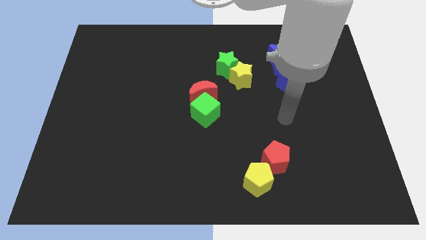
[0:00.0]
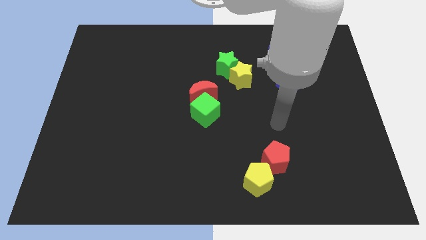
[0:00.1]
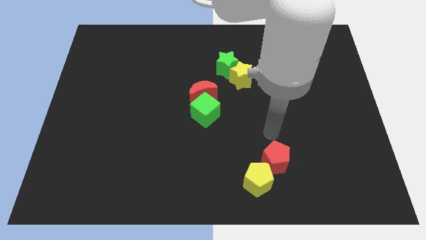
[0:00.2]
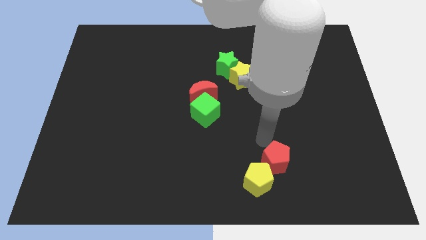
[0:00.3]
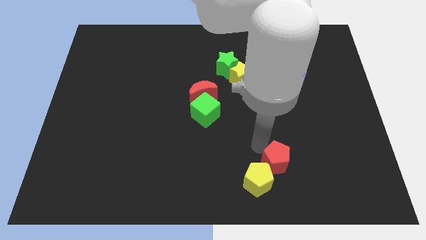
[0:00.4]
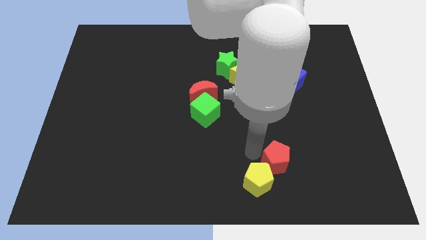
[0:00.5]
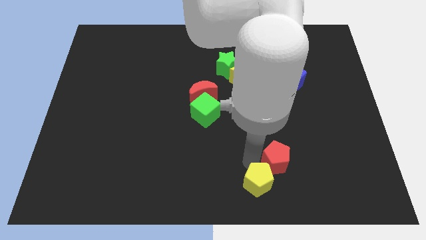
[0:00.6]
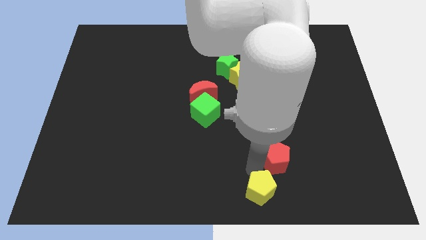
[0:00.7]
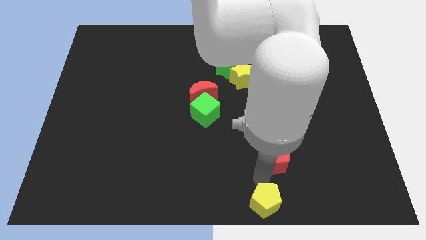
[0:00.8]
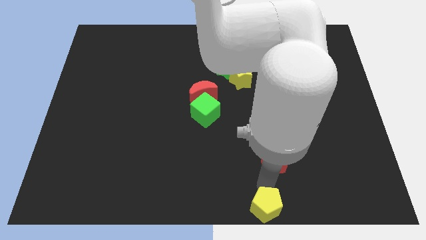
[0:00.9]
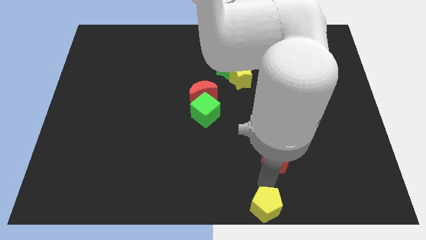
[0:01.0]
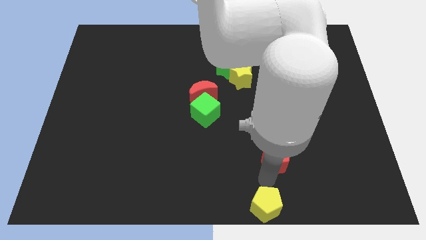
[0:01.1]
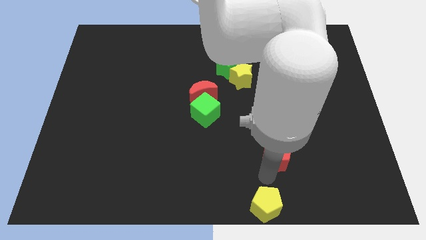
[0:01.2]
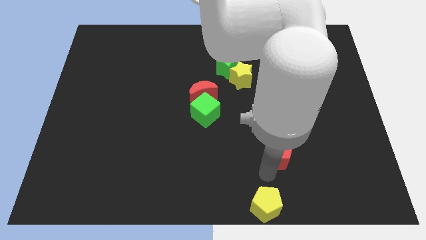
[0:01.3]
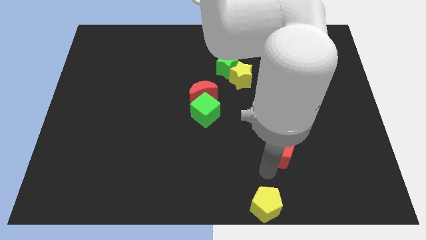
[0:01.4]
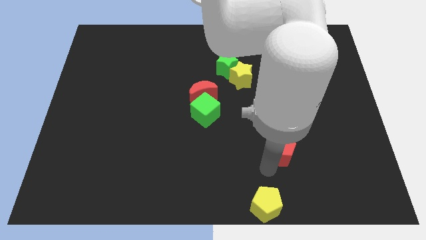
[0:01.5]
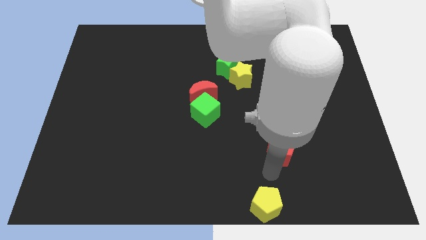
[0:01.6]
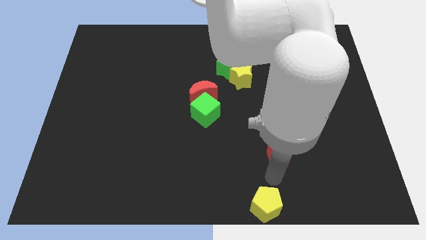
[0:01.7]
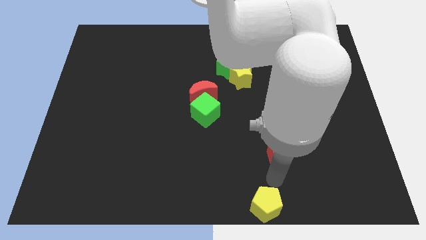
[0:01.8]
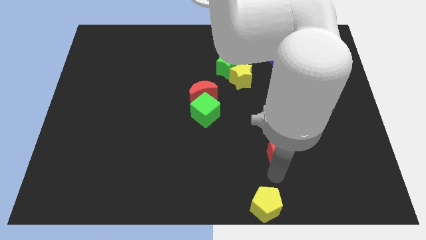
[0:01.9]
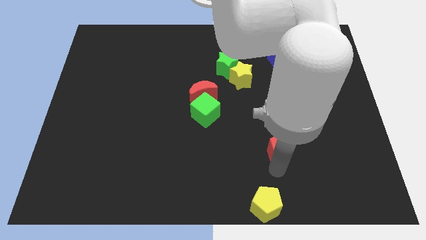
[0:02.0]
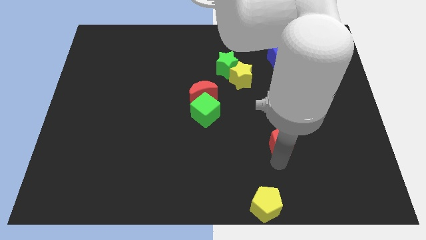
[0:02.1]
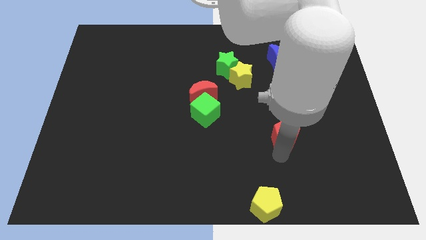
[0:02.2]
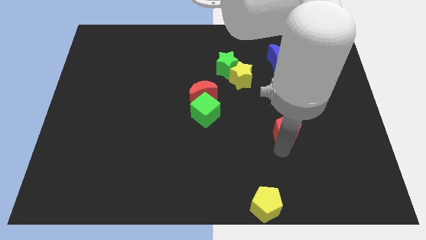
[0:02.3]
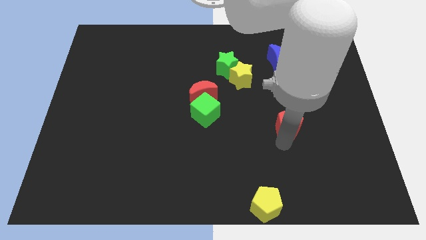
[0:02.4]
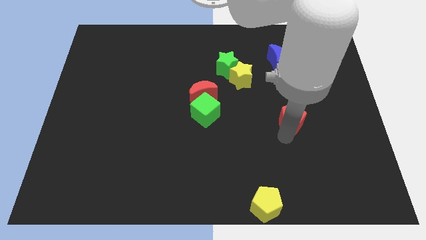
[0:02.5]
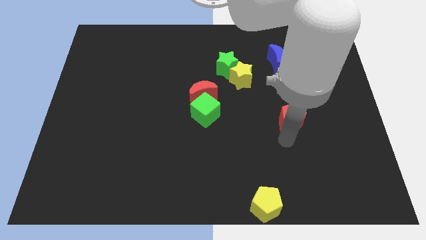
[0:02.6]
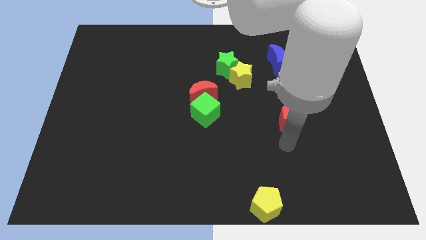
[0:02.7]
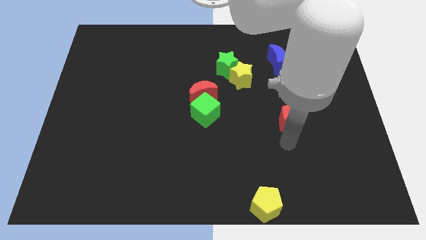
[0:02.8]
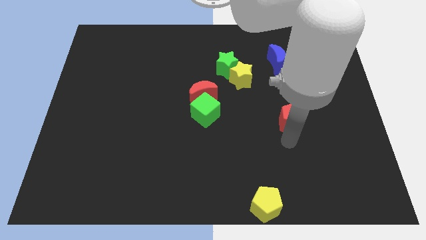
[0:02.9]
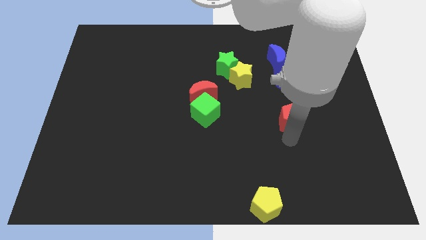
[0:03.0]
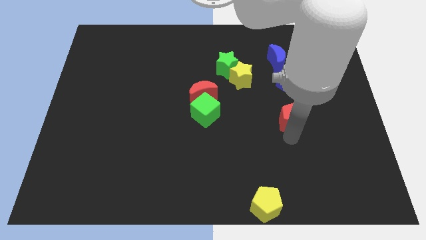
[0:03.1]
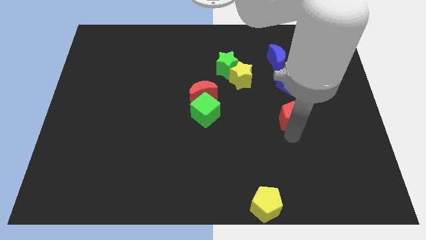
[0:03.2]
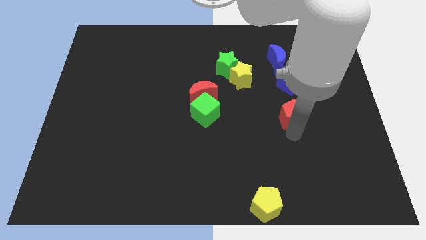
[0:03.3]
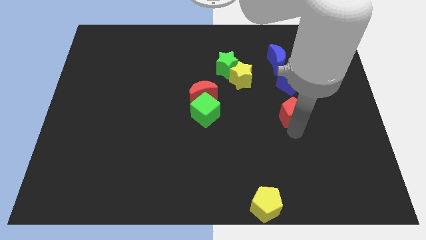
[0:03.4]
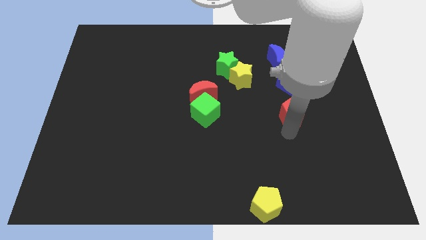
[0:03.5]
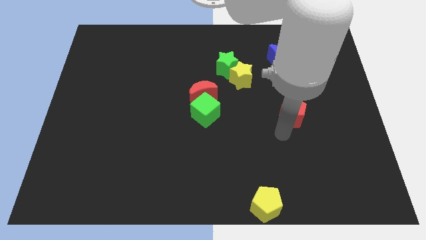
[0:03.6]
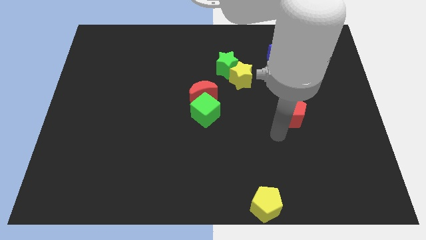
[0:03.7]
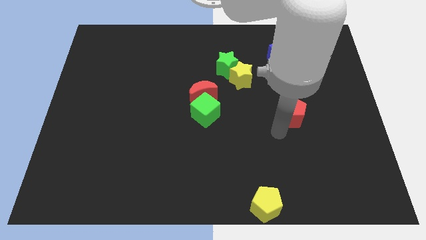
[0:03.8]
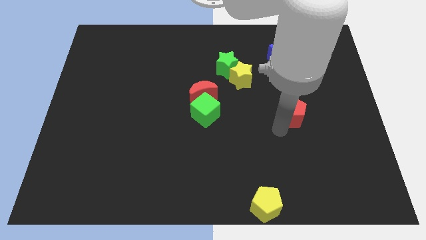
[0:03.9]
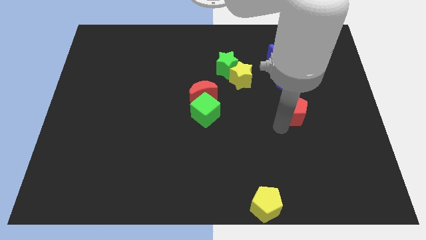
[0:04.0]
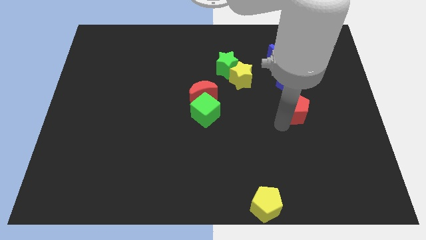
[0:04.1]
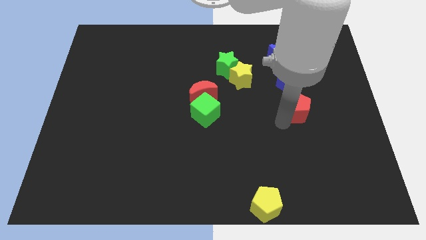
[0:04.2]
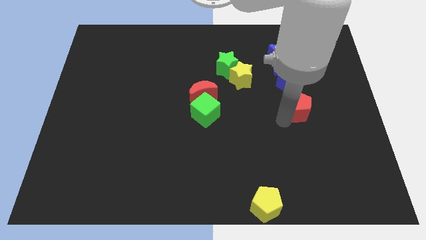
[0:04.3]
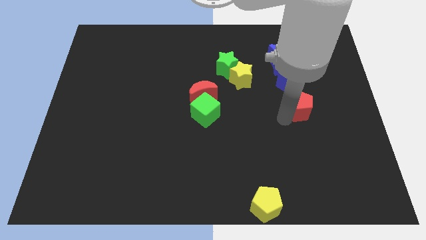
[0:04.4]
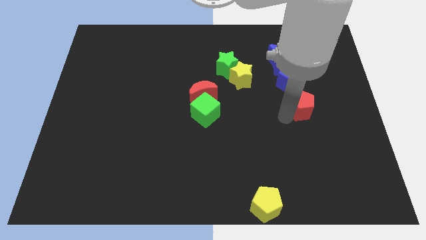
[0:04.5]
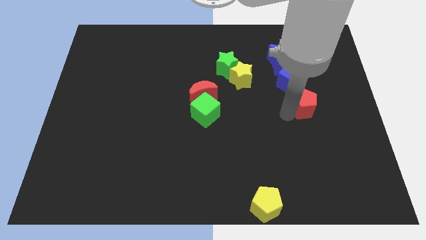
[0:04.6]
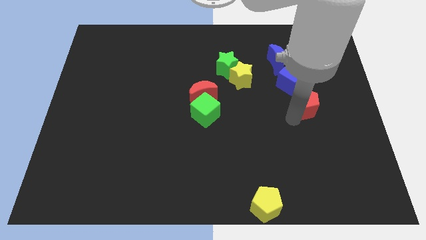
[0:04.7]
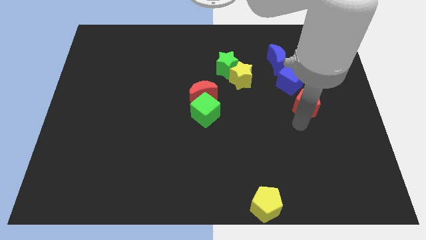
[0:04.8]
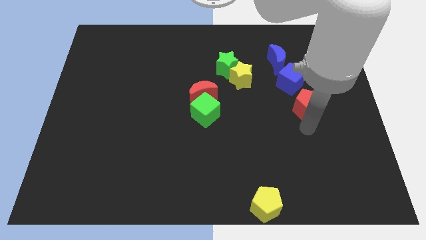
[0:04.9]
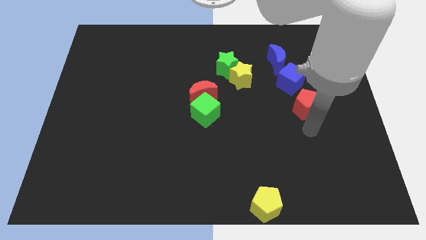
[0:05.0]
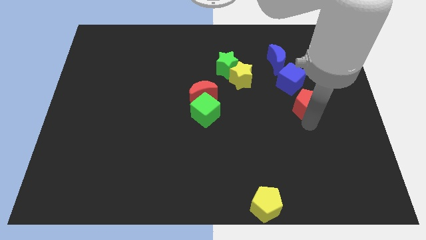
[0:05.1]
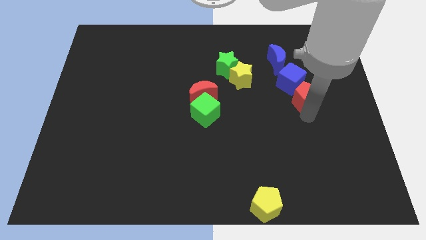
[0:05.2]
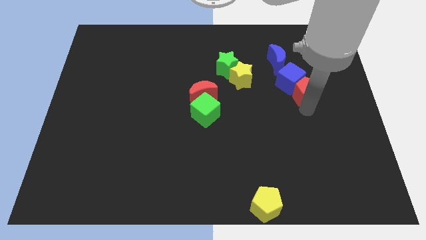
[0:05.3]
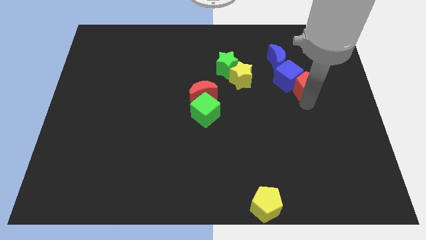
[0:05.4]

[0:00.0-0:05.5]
push the red pentagon to the bottom right of the blue moon

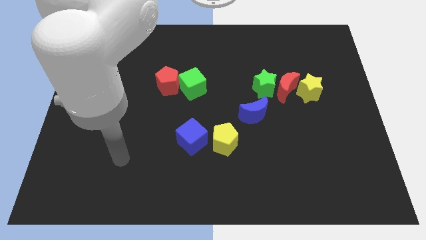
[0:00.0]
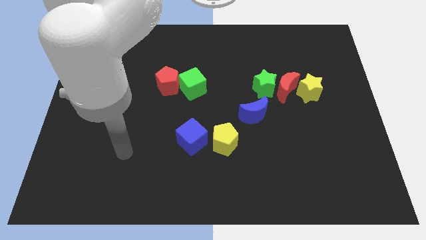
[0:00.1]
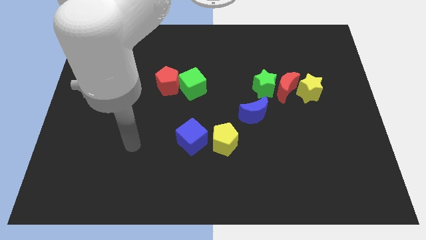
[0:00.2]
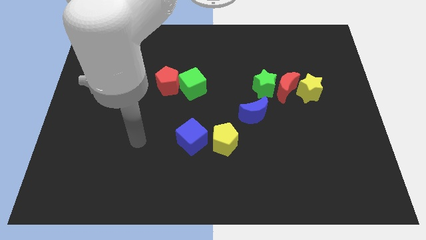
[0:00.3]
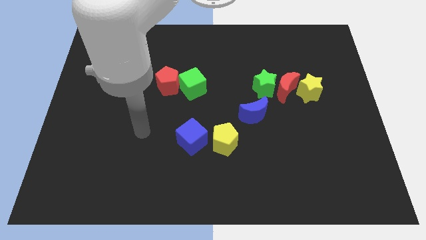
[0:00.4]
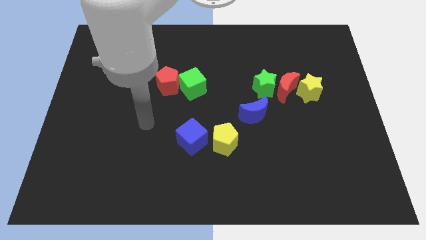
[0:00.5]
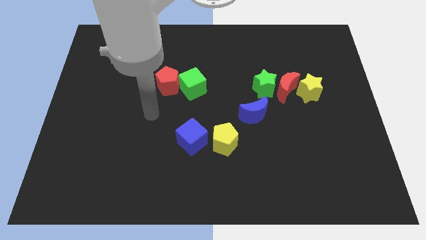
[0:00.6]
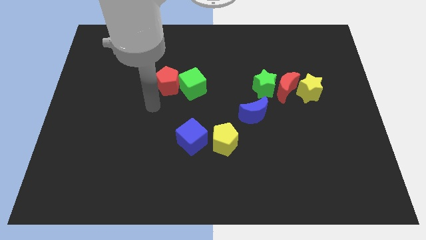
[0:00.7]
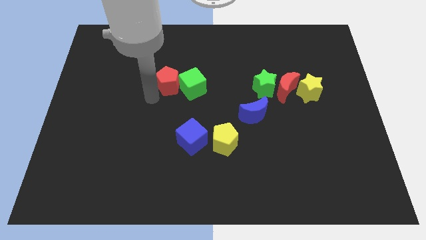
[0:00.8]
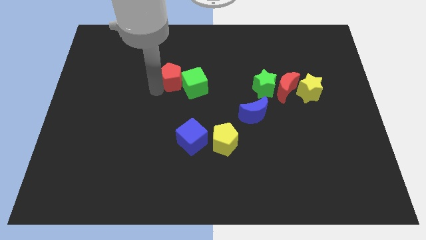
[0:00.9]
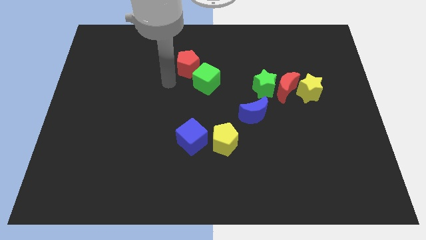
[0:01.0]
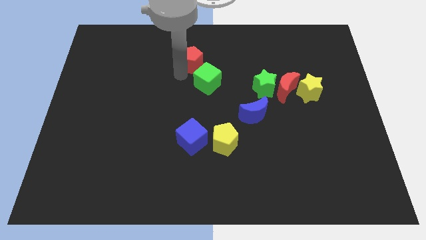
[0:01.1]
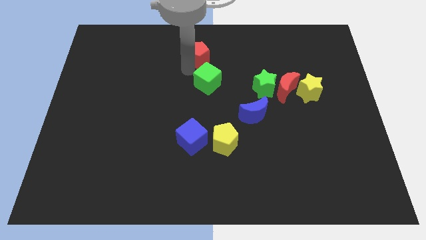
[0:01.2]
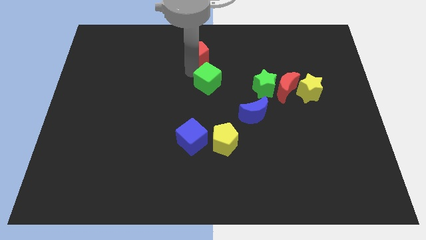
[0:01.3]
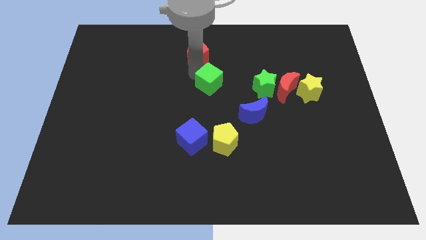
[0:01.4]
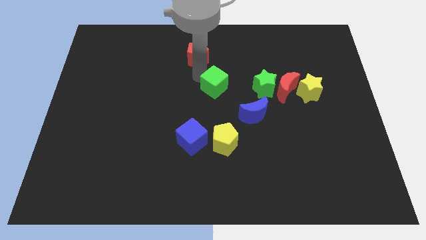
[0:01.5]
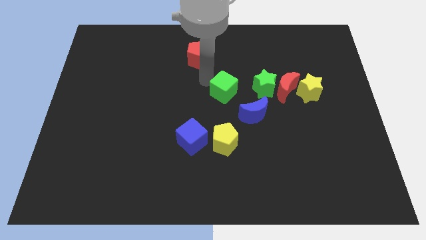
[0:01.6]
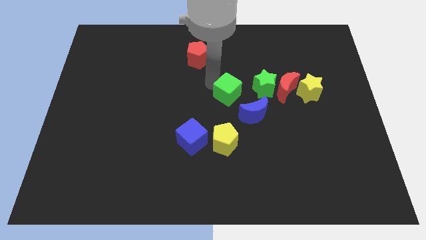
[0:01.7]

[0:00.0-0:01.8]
put the green cube to the bottom left of the green star
